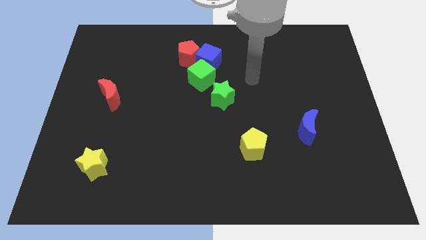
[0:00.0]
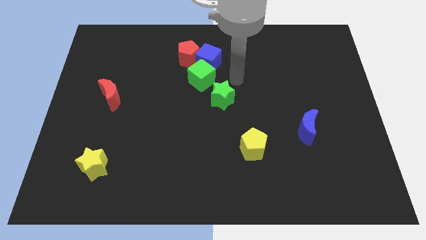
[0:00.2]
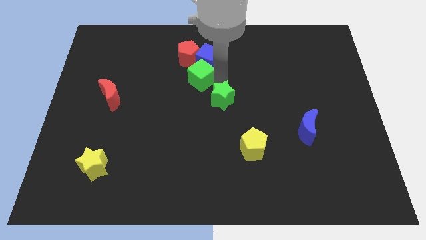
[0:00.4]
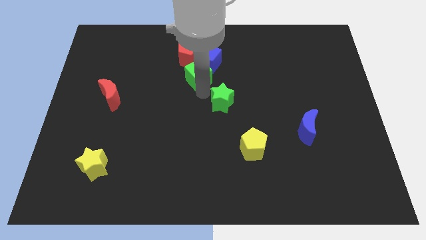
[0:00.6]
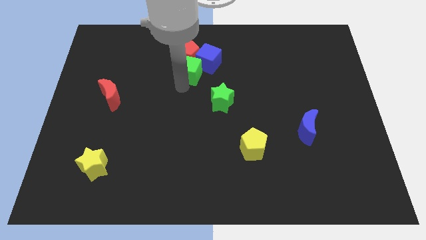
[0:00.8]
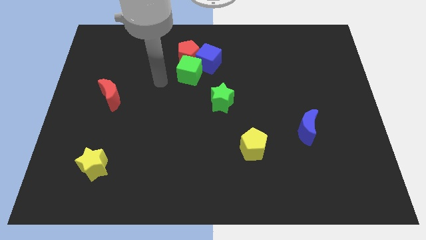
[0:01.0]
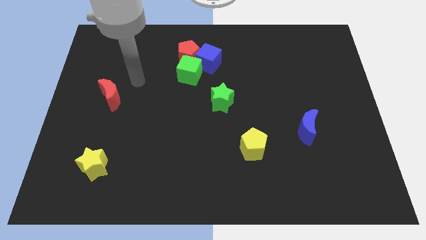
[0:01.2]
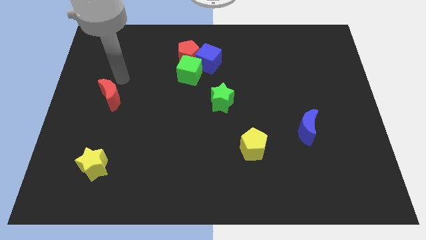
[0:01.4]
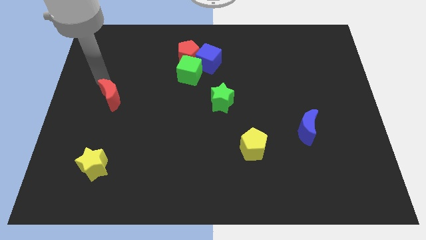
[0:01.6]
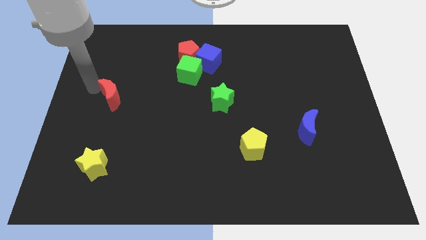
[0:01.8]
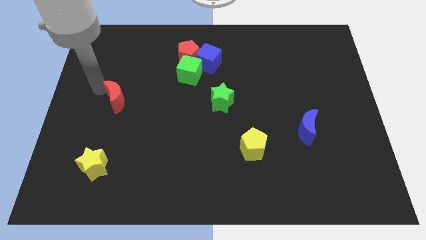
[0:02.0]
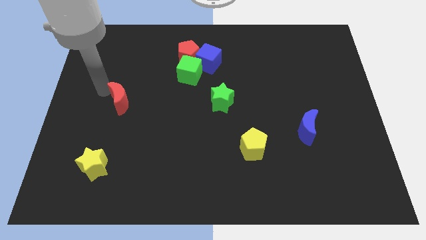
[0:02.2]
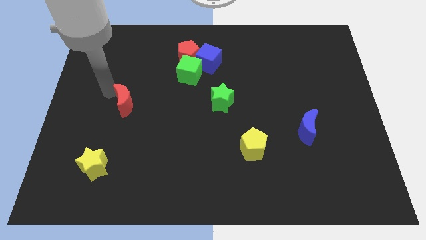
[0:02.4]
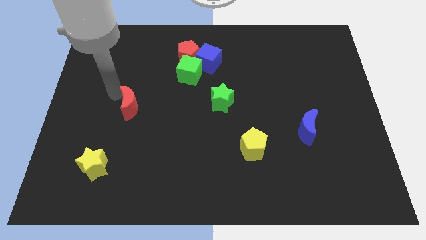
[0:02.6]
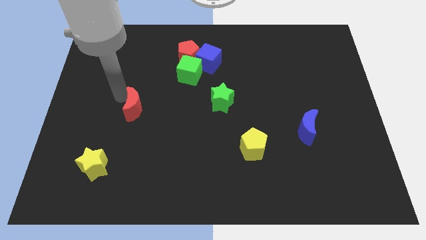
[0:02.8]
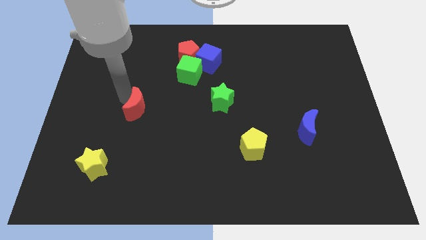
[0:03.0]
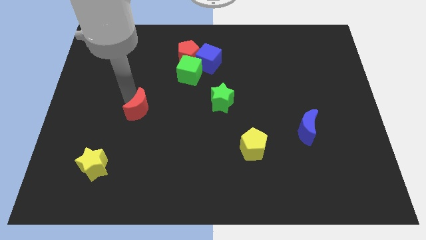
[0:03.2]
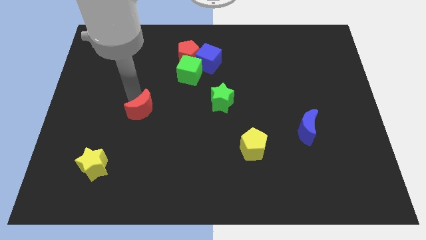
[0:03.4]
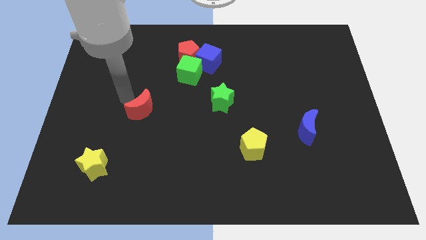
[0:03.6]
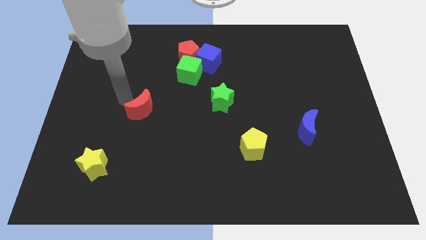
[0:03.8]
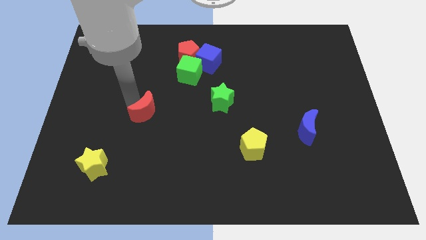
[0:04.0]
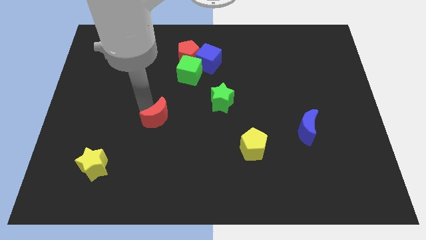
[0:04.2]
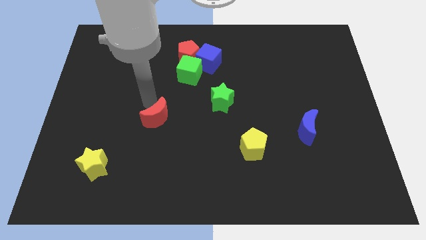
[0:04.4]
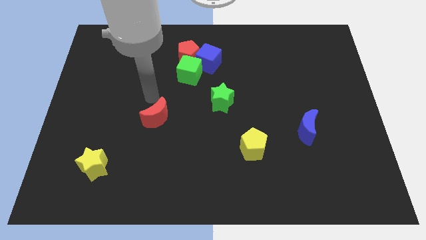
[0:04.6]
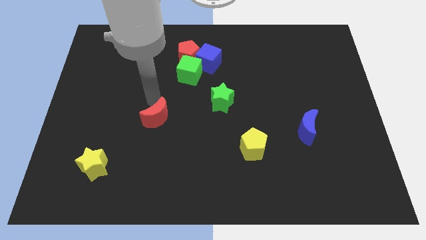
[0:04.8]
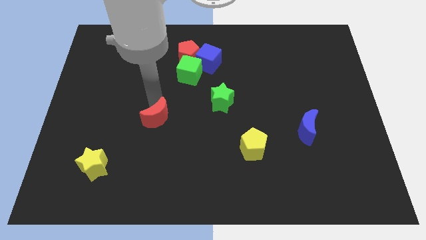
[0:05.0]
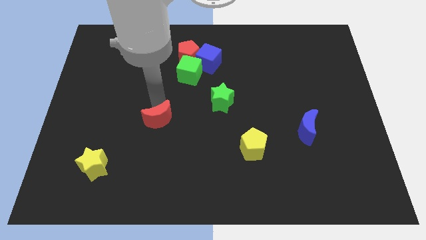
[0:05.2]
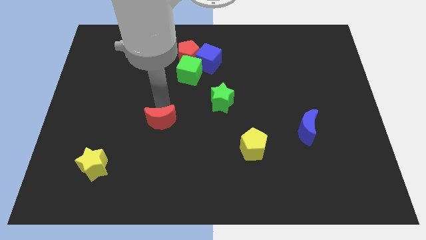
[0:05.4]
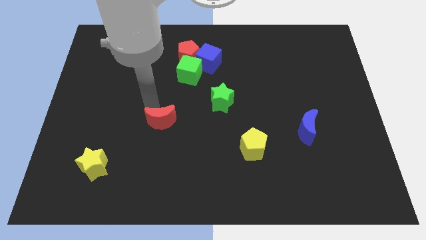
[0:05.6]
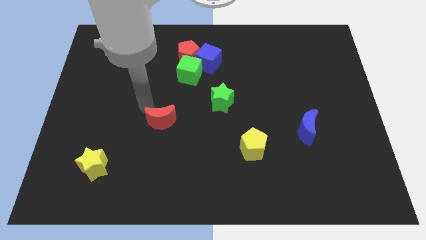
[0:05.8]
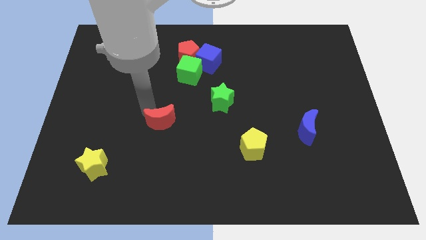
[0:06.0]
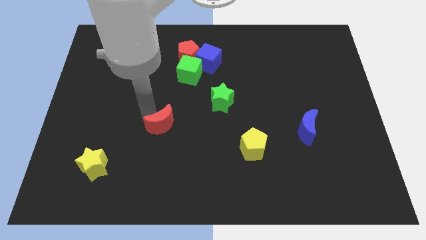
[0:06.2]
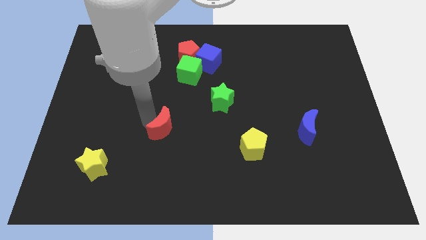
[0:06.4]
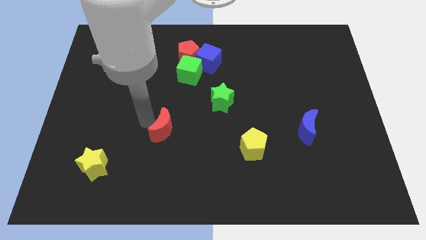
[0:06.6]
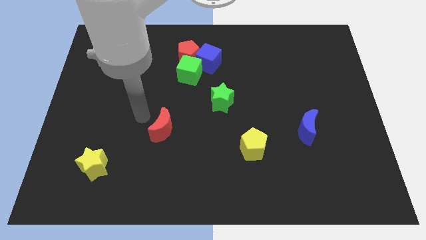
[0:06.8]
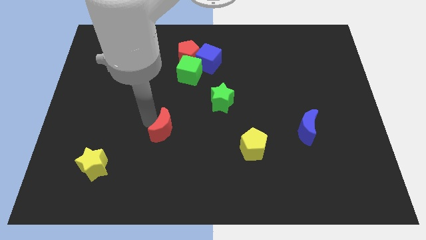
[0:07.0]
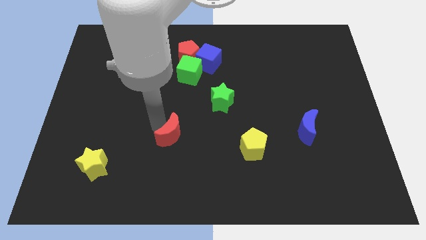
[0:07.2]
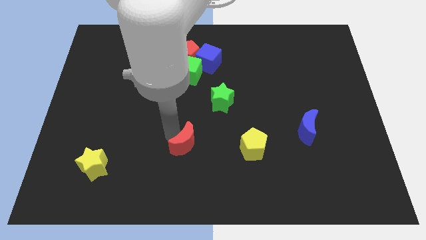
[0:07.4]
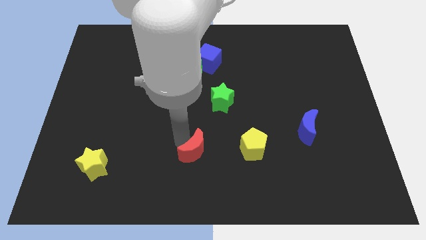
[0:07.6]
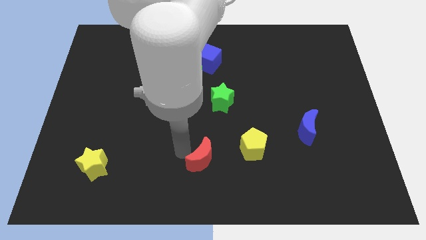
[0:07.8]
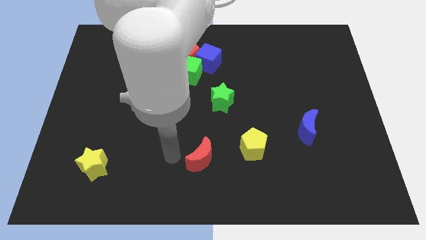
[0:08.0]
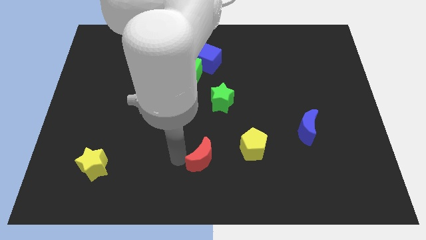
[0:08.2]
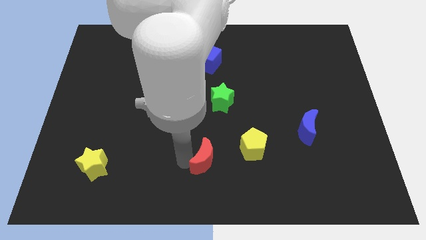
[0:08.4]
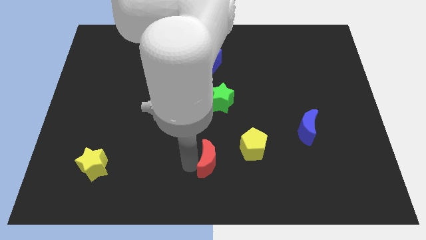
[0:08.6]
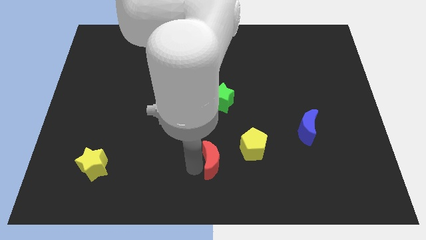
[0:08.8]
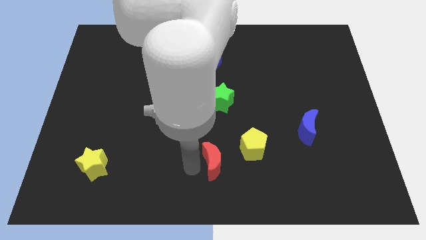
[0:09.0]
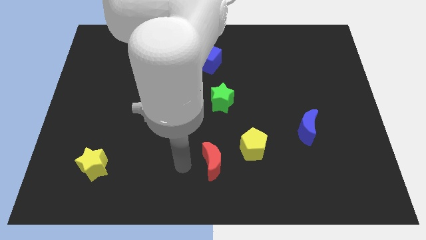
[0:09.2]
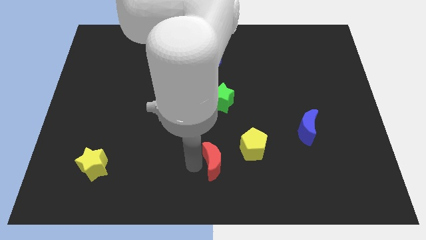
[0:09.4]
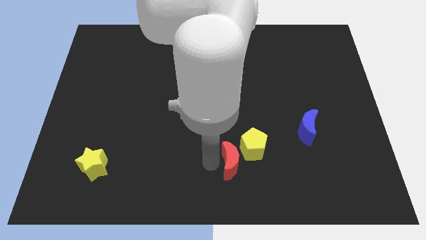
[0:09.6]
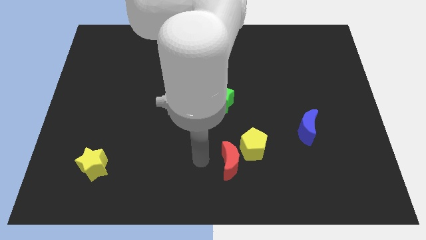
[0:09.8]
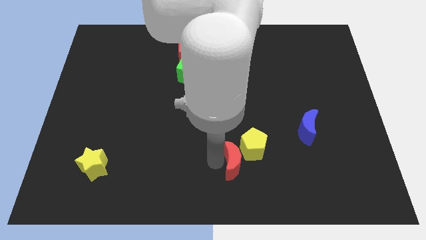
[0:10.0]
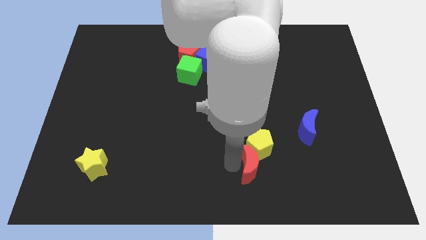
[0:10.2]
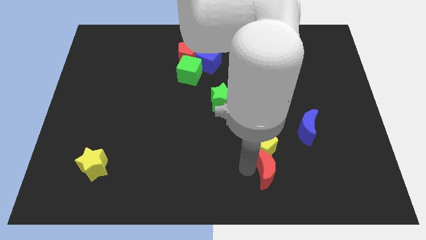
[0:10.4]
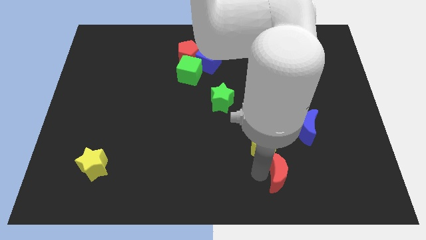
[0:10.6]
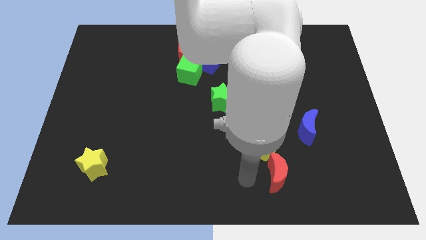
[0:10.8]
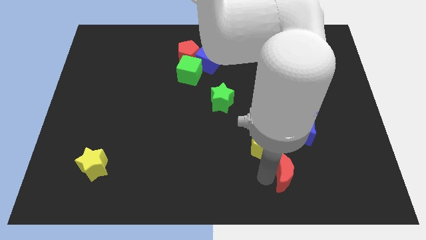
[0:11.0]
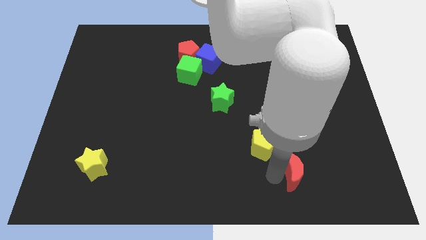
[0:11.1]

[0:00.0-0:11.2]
move the red moon below the blue moon

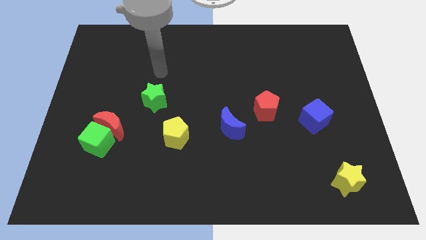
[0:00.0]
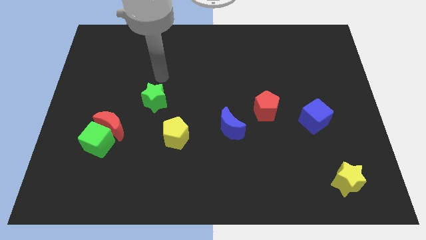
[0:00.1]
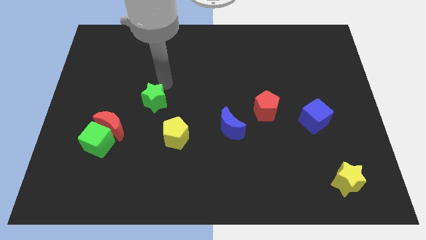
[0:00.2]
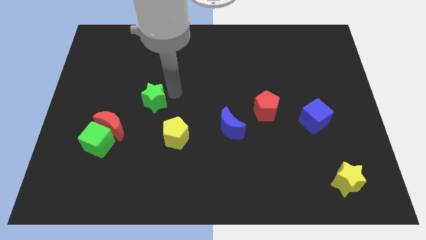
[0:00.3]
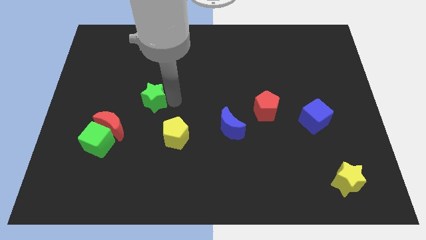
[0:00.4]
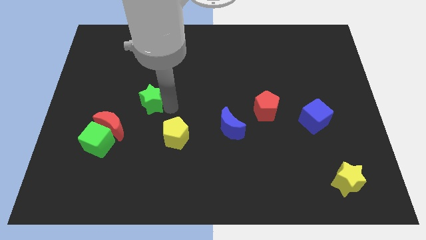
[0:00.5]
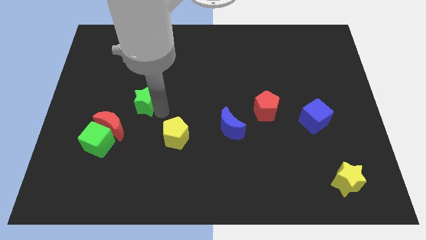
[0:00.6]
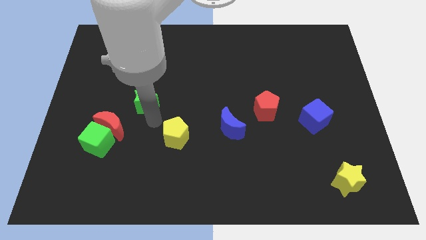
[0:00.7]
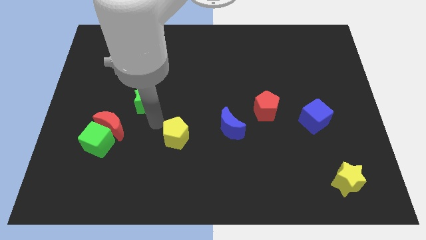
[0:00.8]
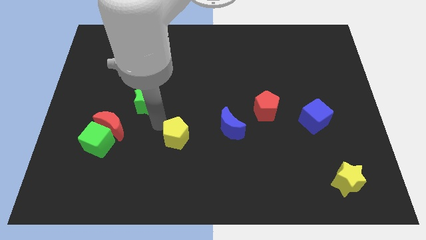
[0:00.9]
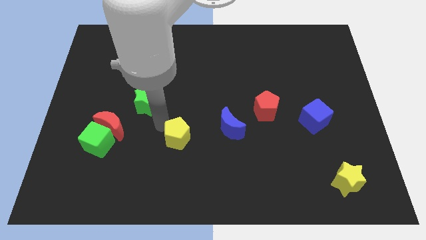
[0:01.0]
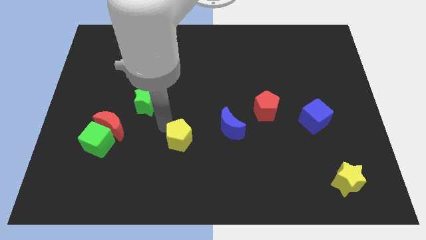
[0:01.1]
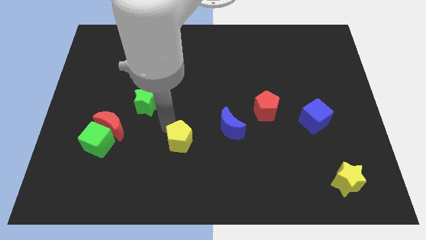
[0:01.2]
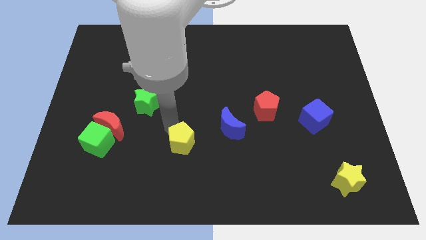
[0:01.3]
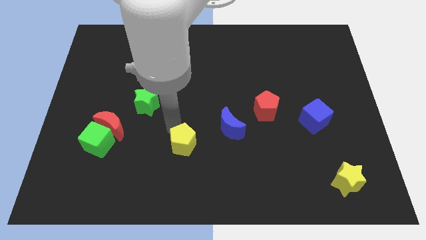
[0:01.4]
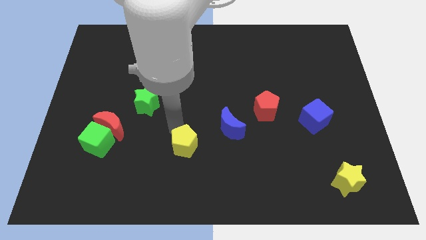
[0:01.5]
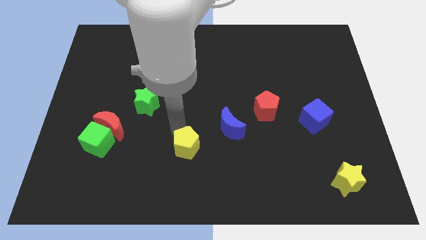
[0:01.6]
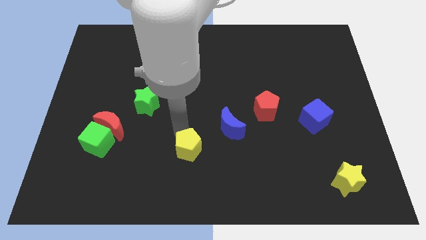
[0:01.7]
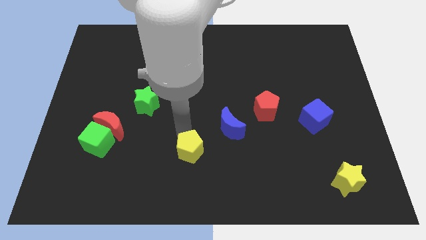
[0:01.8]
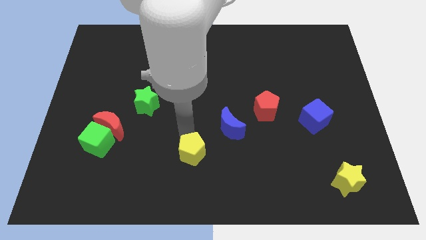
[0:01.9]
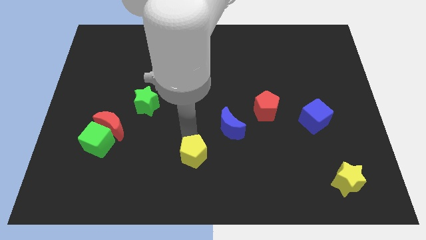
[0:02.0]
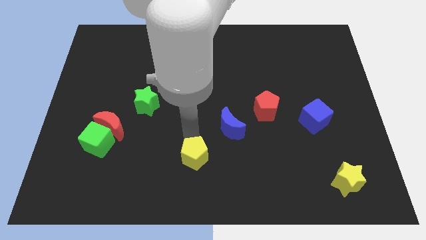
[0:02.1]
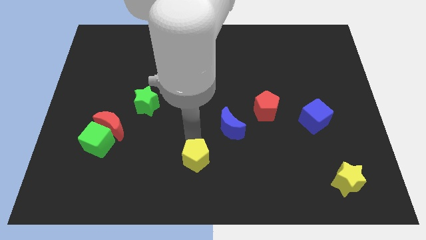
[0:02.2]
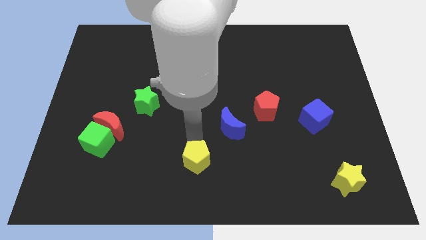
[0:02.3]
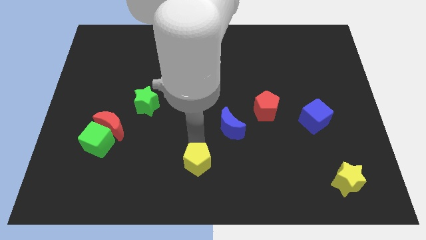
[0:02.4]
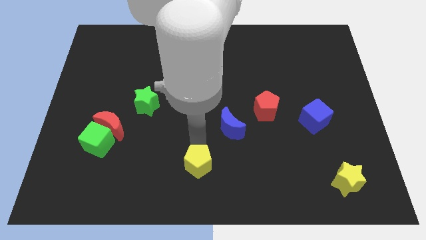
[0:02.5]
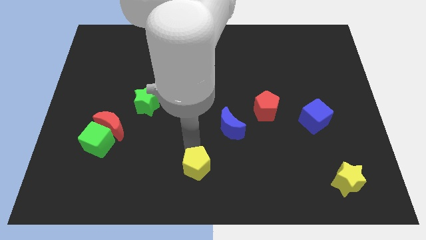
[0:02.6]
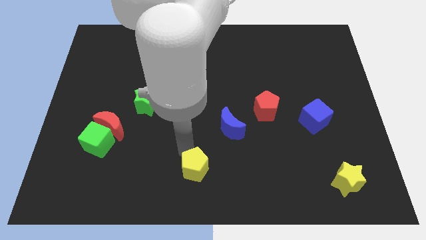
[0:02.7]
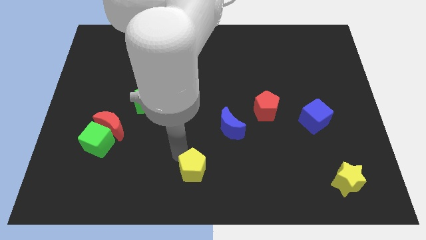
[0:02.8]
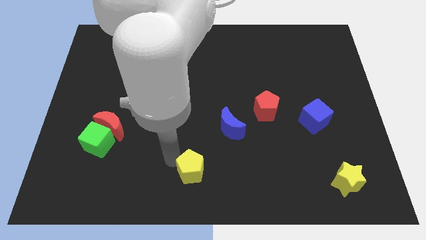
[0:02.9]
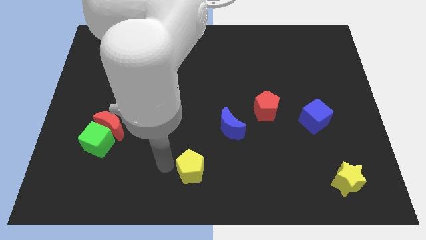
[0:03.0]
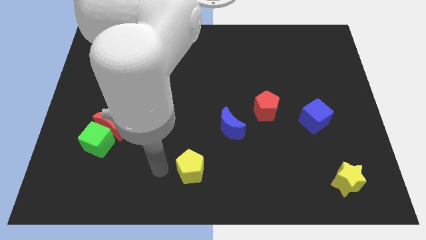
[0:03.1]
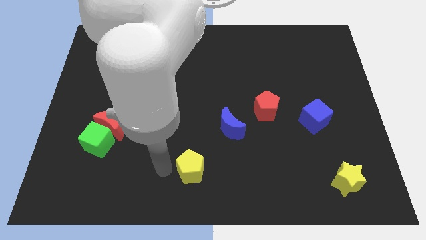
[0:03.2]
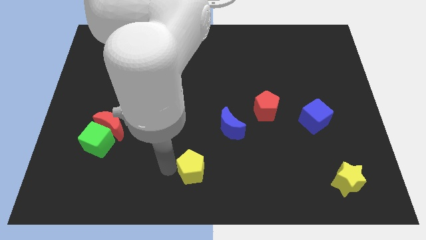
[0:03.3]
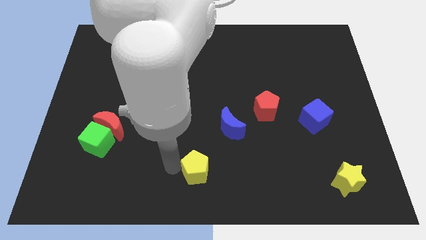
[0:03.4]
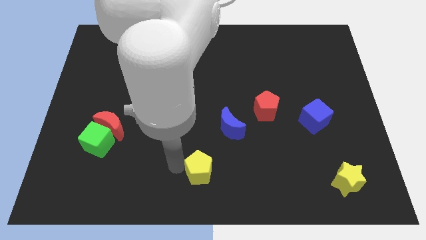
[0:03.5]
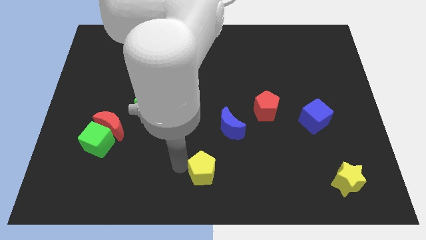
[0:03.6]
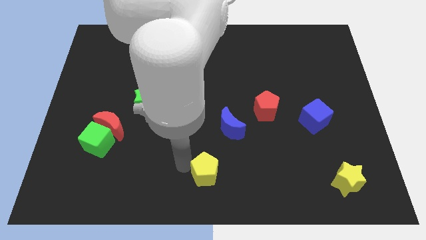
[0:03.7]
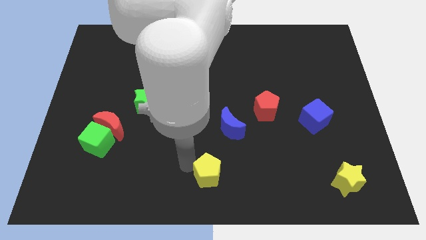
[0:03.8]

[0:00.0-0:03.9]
push the yellow pentagon below the blue moon
